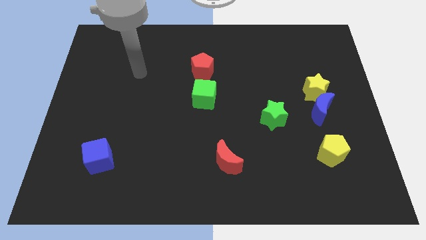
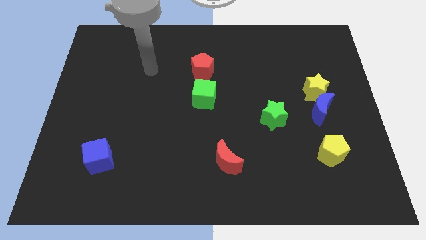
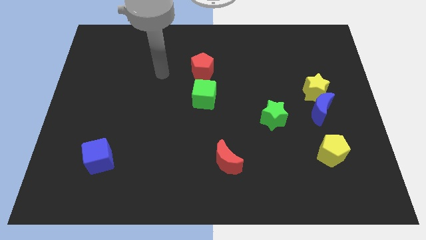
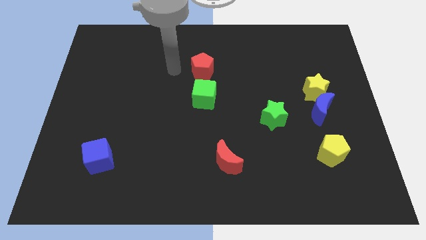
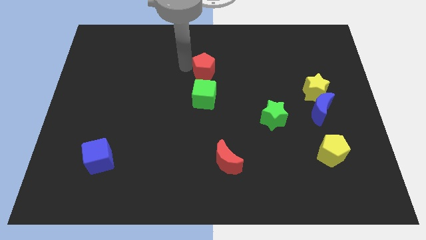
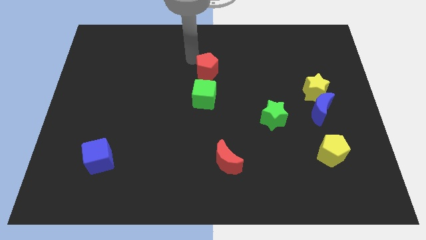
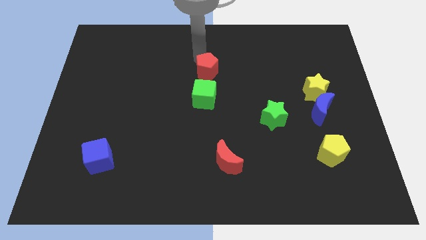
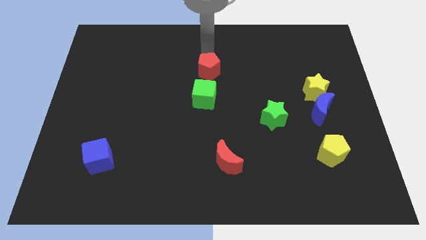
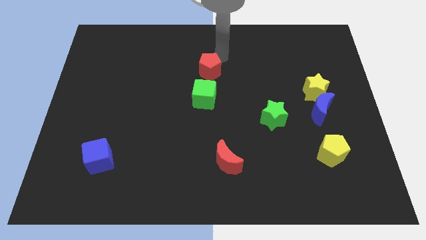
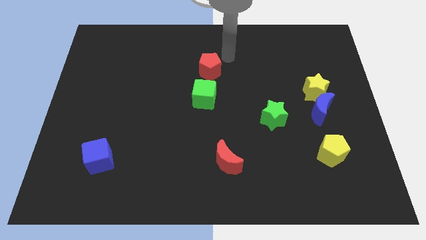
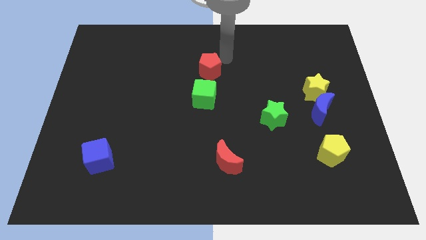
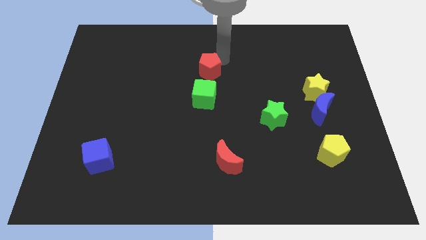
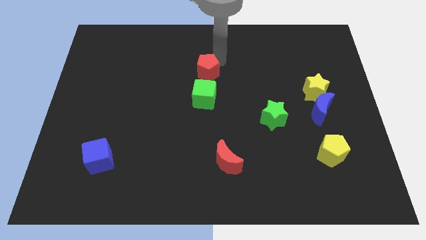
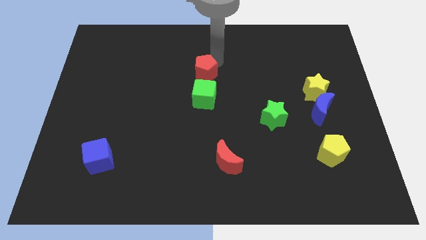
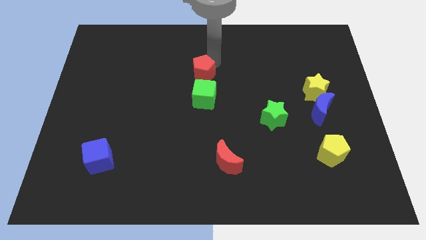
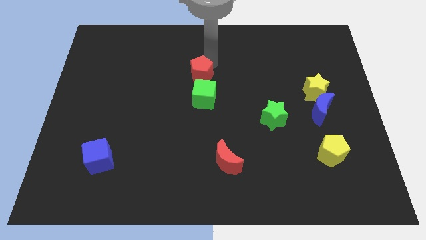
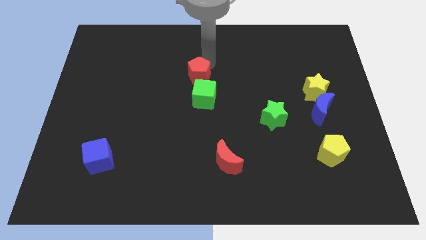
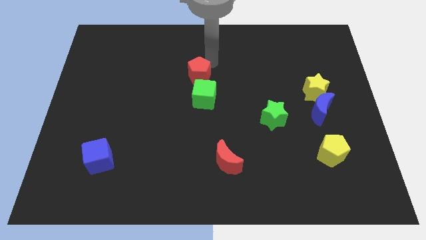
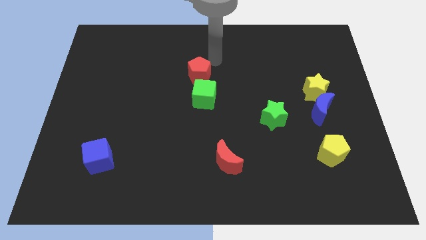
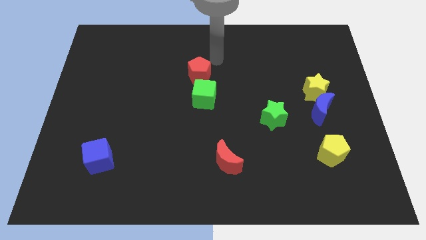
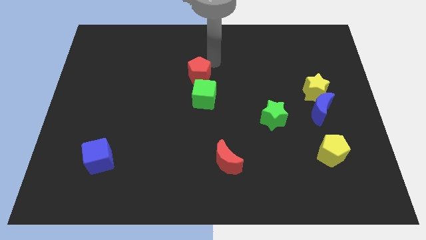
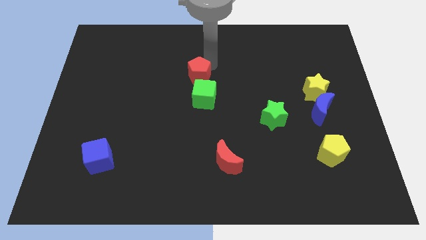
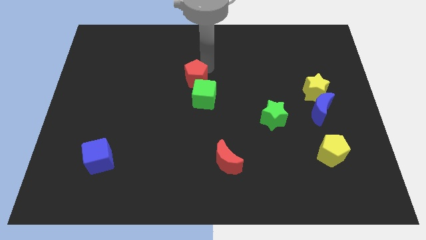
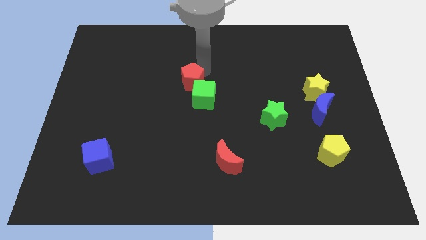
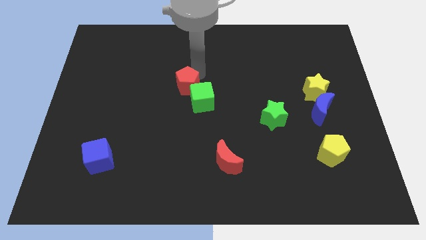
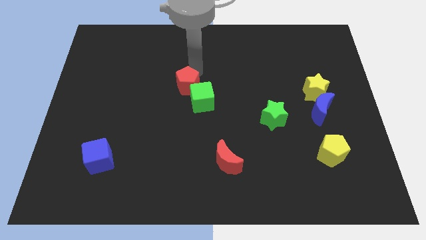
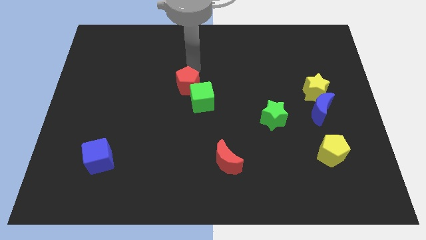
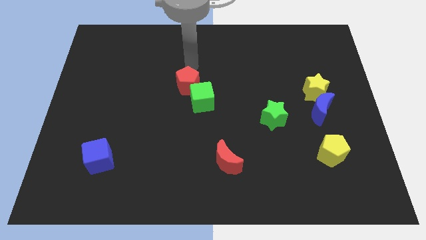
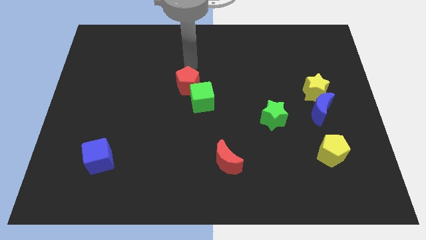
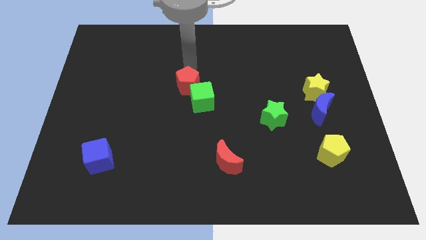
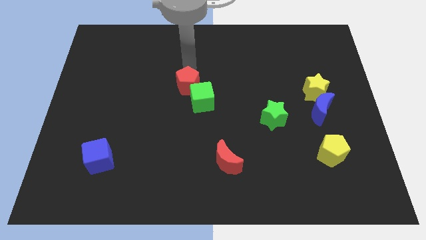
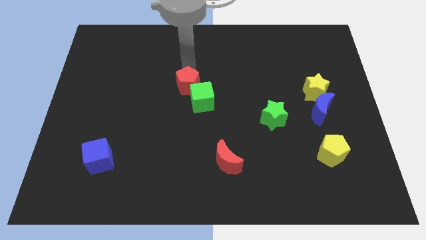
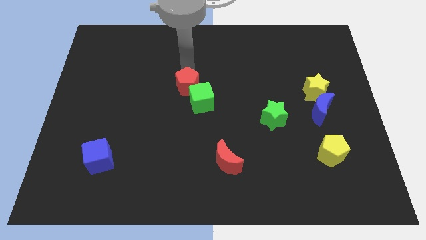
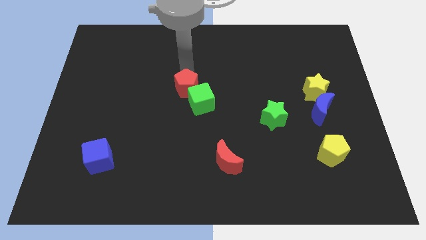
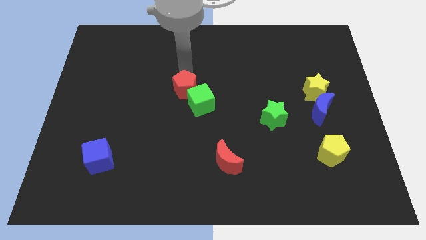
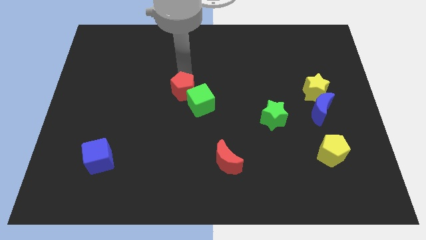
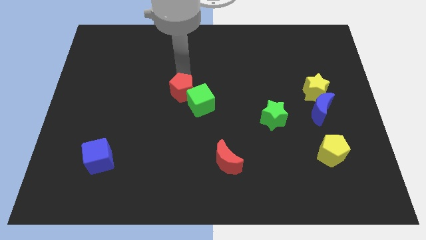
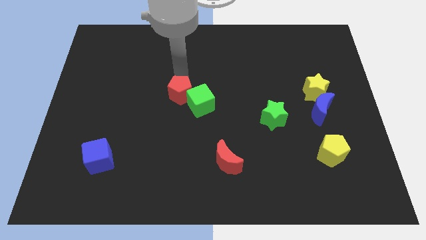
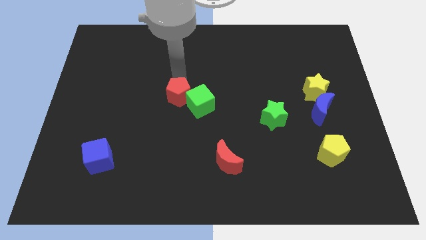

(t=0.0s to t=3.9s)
slightly slide the red pentagon down

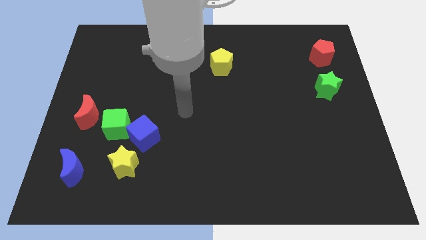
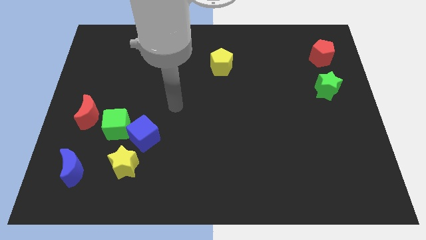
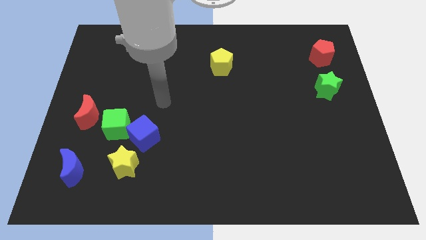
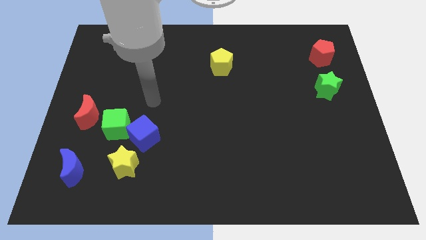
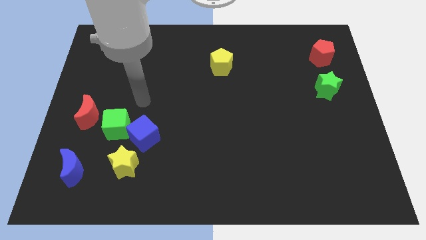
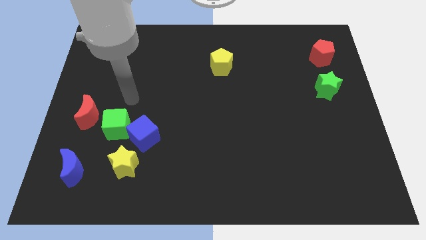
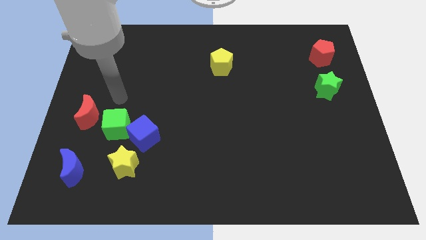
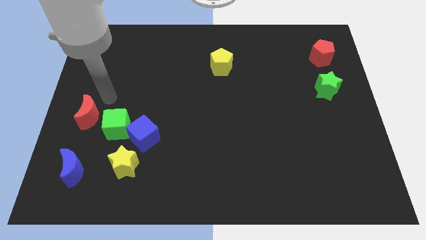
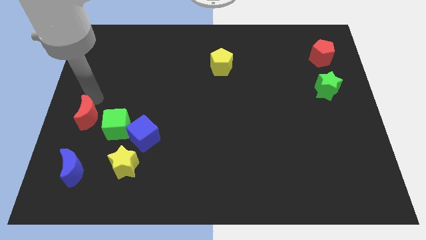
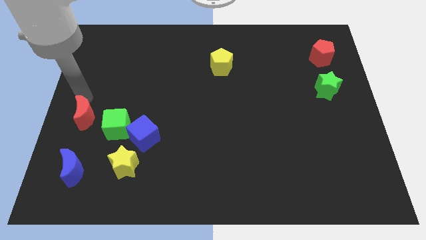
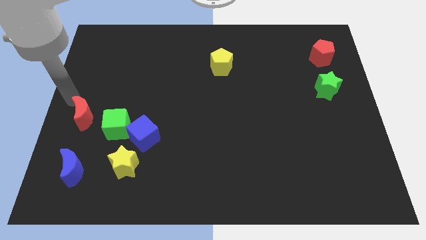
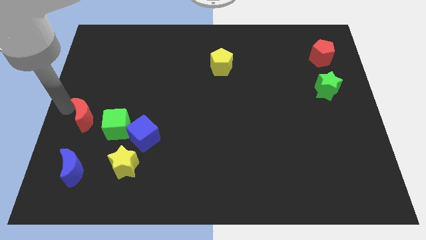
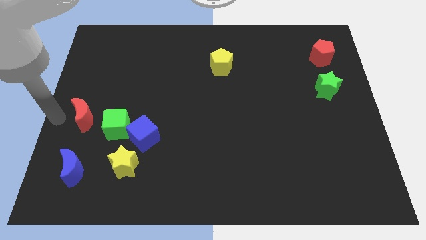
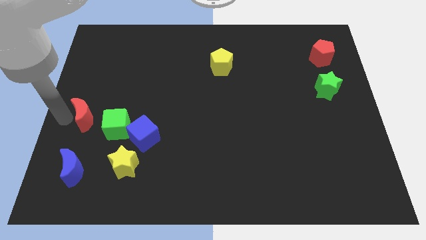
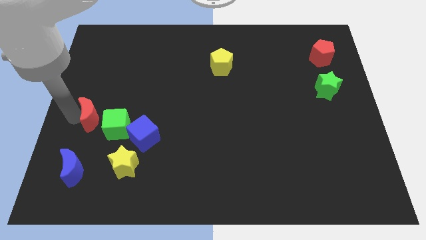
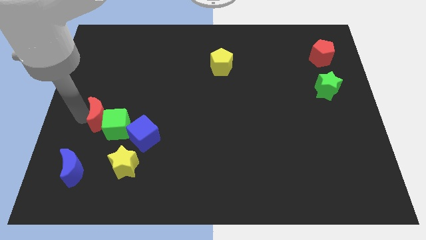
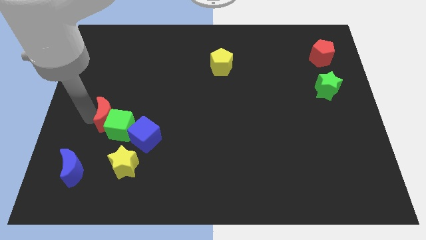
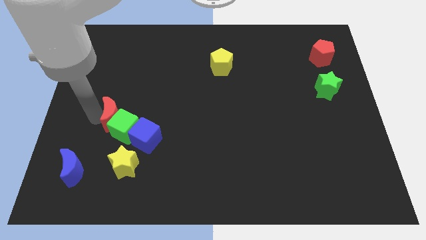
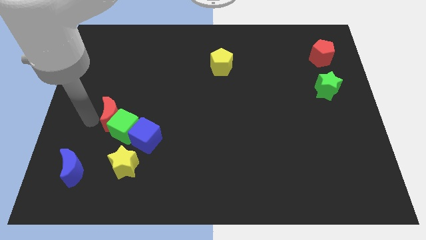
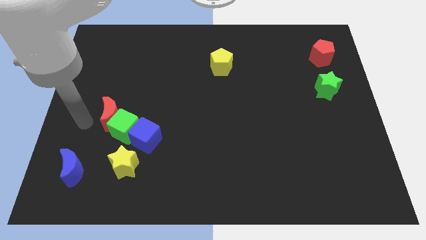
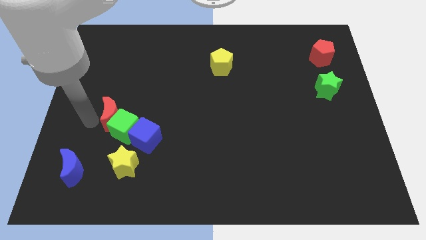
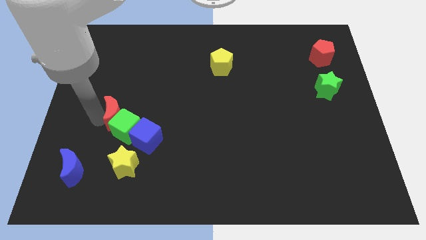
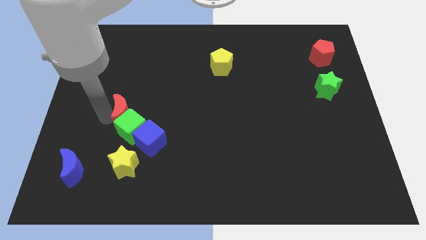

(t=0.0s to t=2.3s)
slide the red moon right a bit

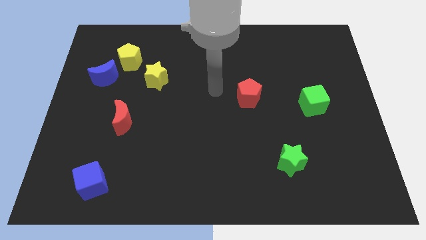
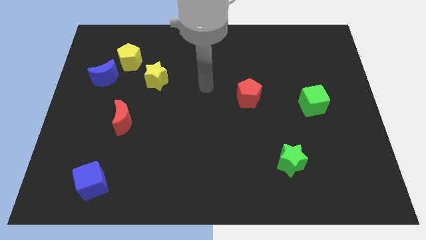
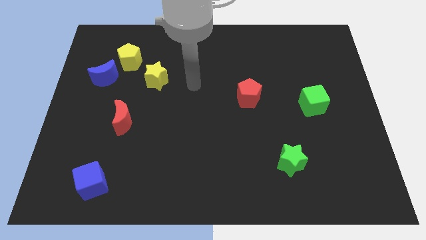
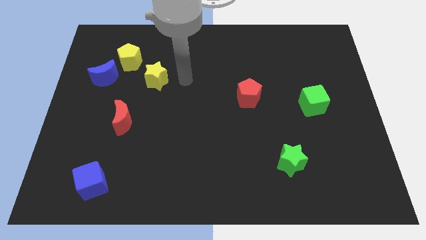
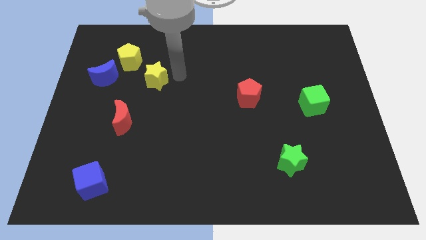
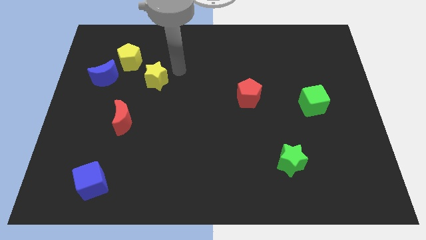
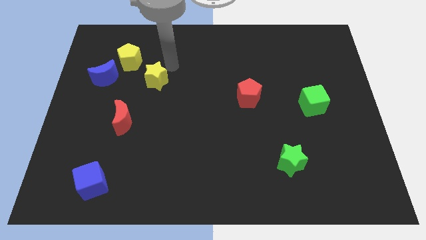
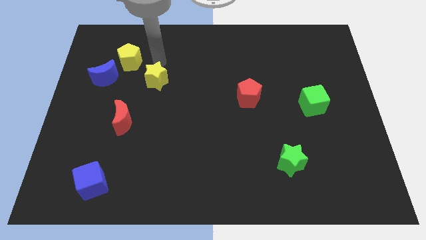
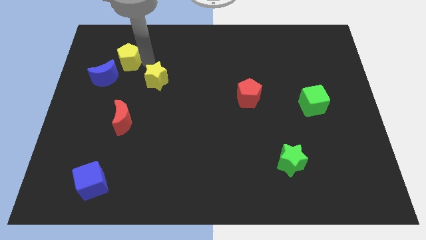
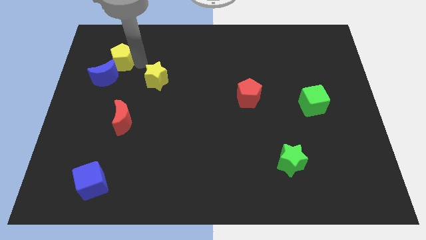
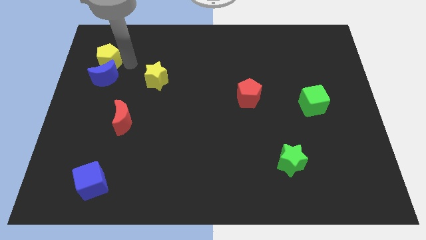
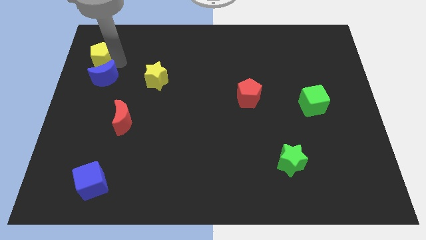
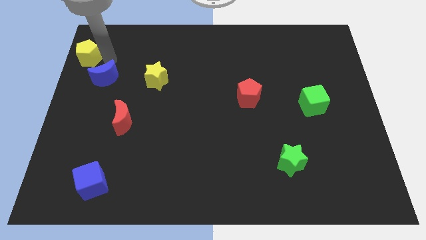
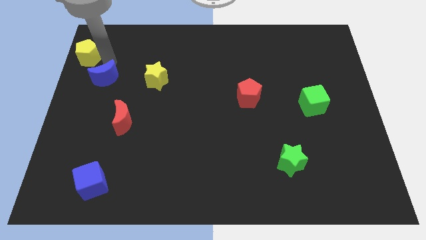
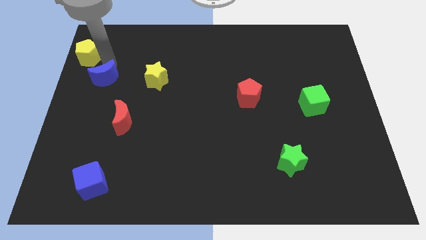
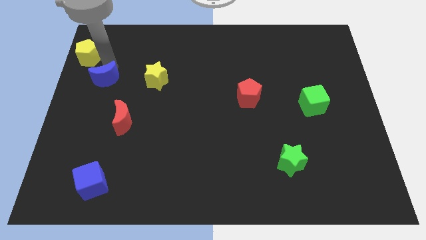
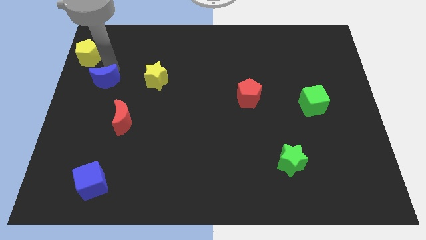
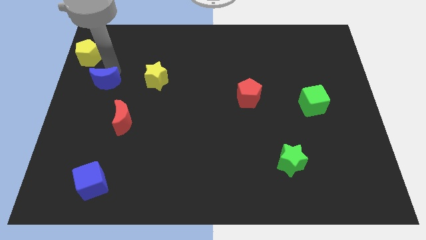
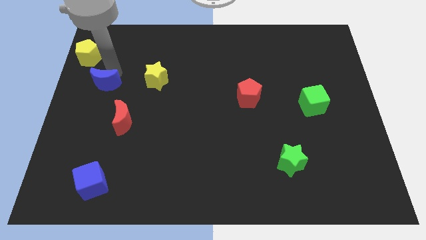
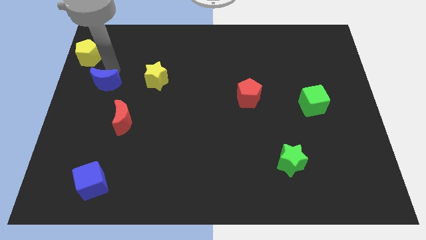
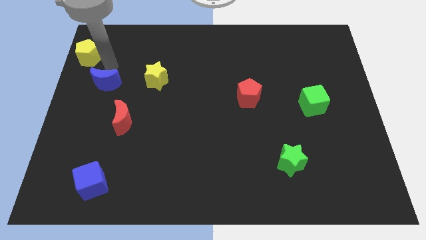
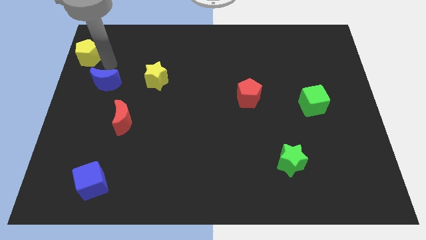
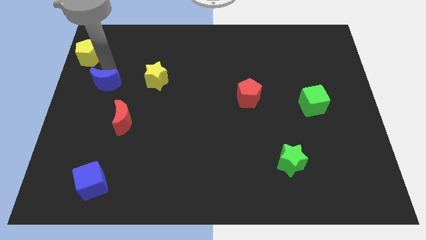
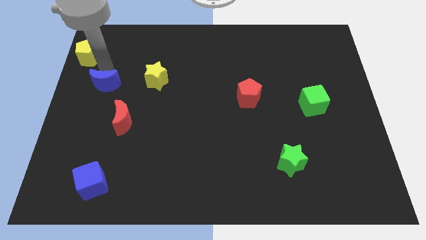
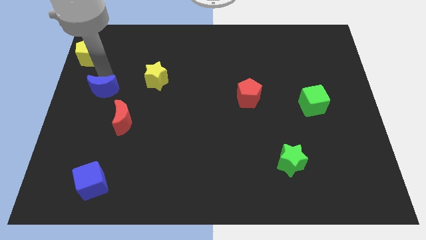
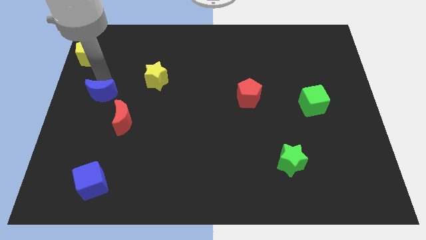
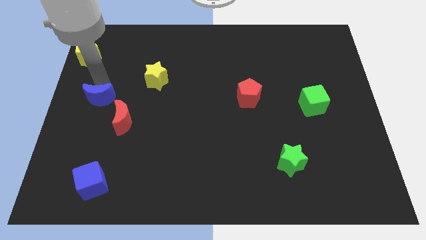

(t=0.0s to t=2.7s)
push the blue moon downwards a little bit
